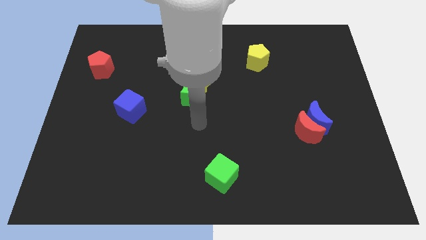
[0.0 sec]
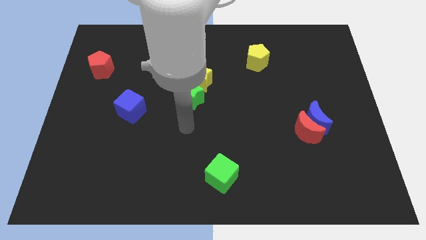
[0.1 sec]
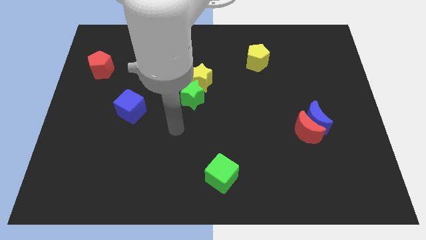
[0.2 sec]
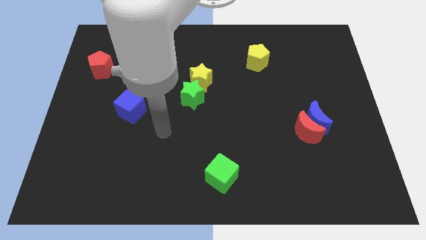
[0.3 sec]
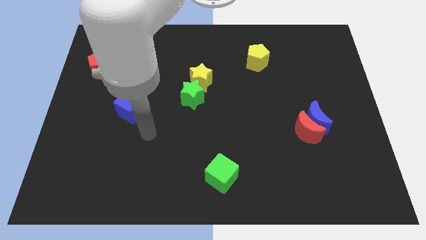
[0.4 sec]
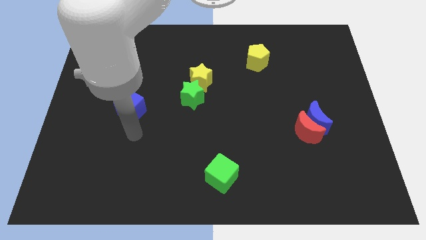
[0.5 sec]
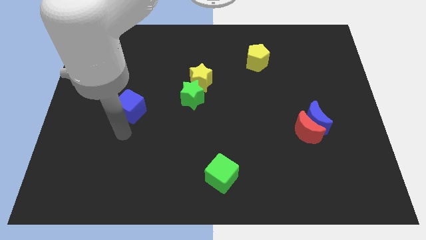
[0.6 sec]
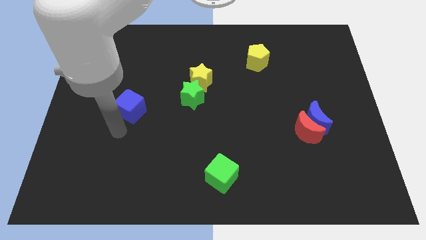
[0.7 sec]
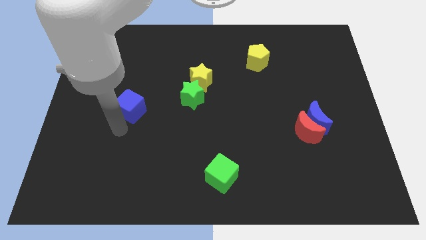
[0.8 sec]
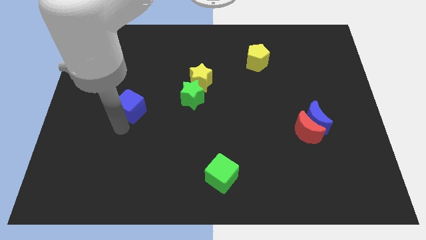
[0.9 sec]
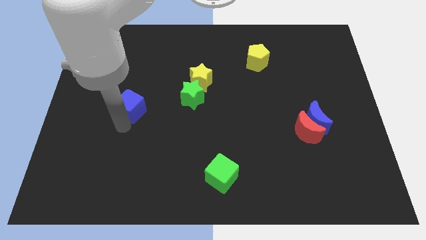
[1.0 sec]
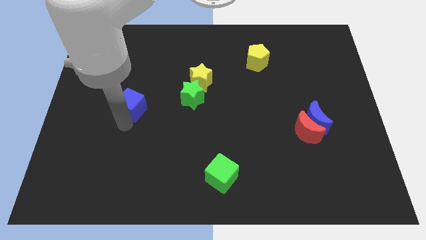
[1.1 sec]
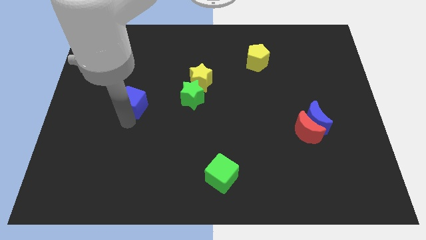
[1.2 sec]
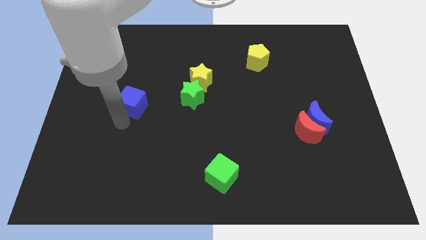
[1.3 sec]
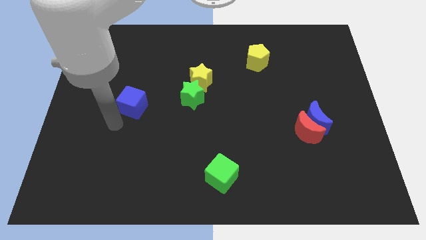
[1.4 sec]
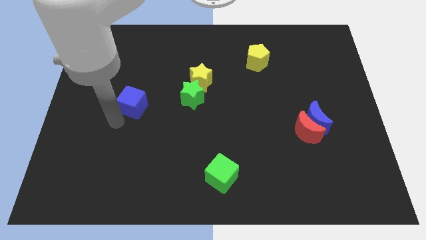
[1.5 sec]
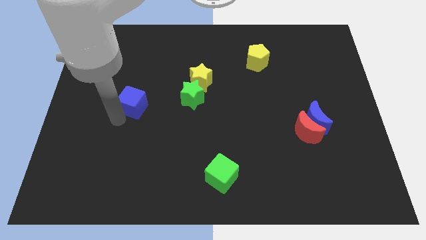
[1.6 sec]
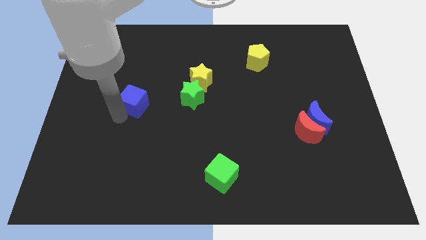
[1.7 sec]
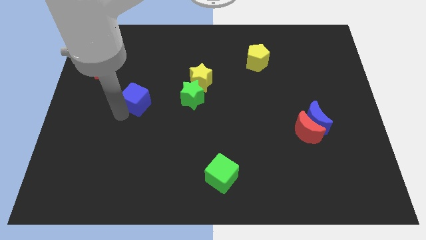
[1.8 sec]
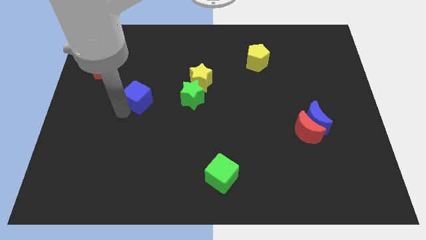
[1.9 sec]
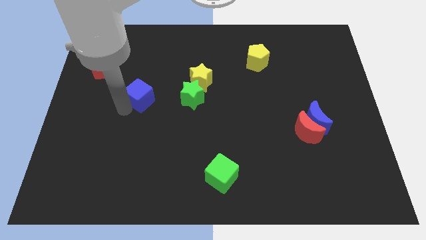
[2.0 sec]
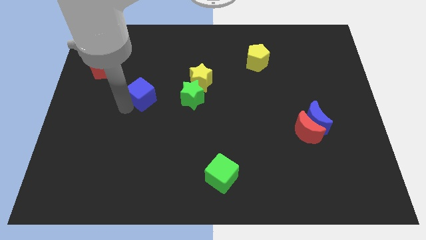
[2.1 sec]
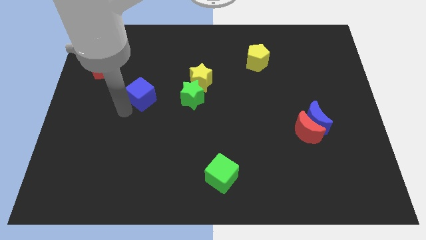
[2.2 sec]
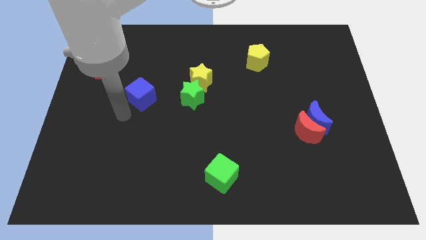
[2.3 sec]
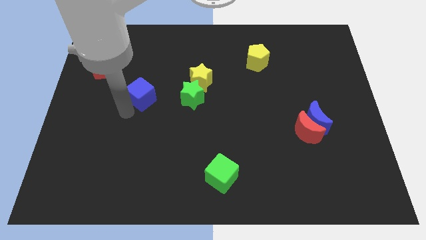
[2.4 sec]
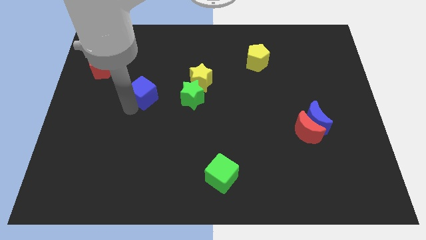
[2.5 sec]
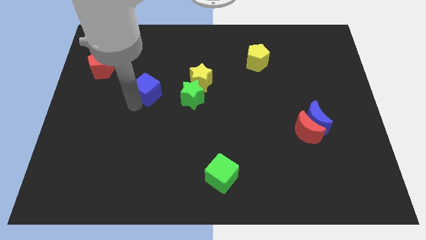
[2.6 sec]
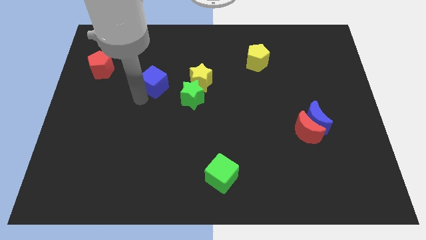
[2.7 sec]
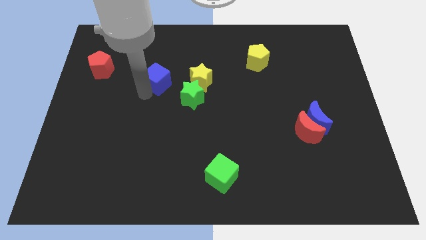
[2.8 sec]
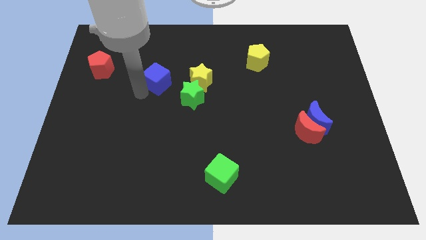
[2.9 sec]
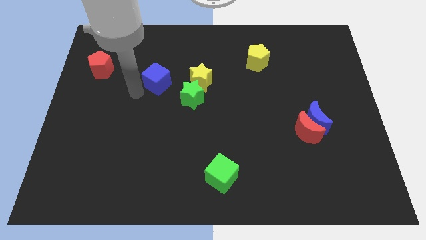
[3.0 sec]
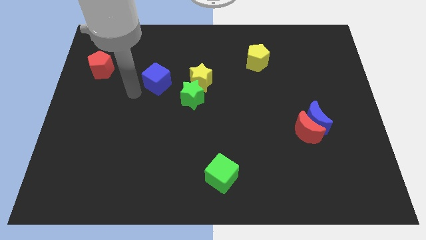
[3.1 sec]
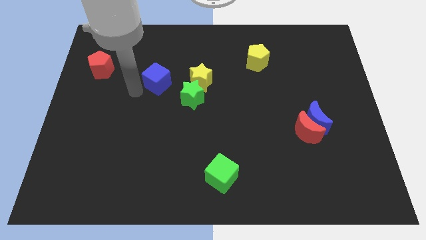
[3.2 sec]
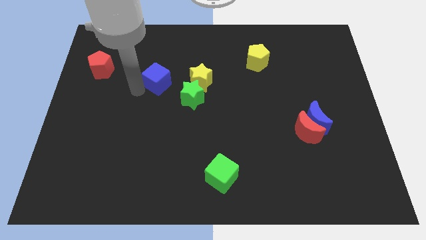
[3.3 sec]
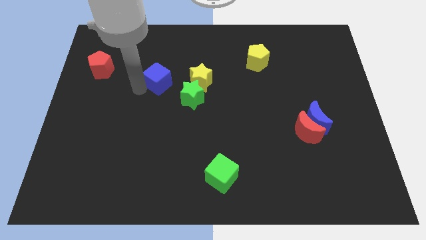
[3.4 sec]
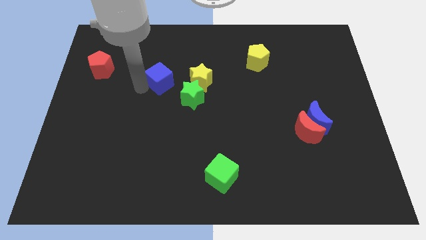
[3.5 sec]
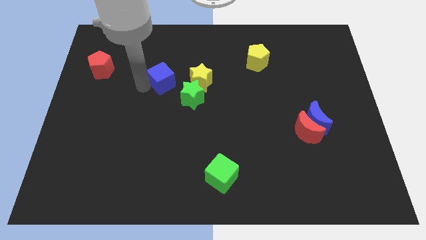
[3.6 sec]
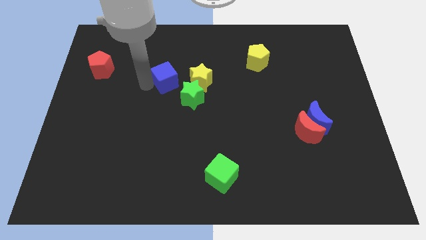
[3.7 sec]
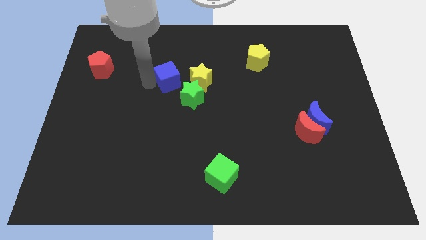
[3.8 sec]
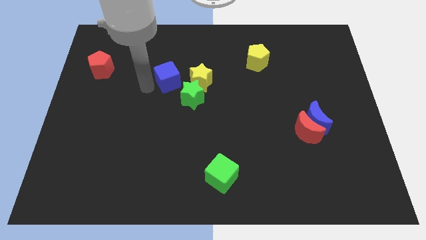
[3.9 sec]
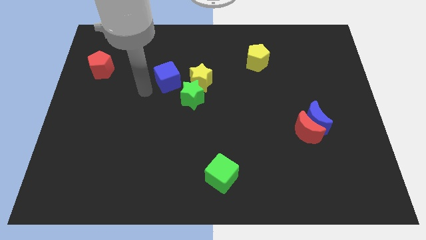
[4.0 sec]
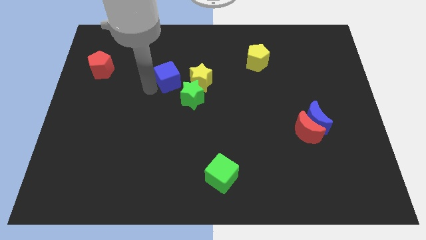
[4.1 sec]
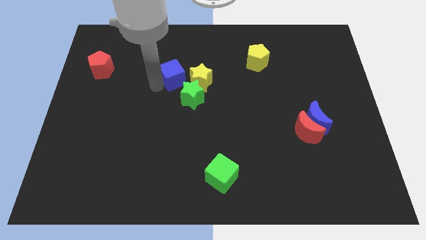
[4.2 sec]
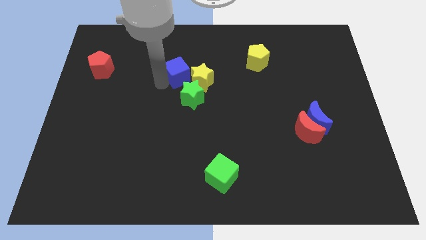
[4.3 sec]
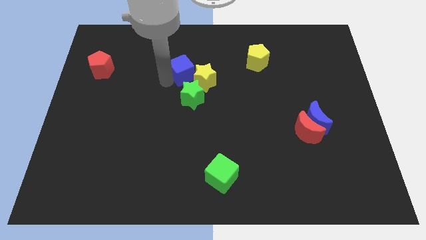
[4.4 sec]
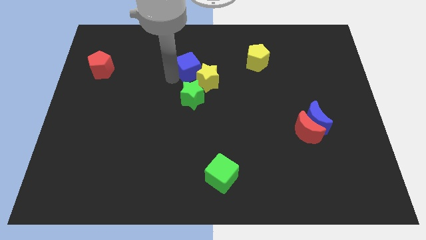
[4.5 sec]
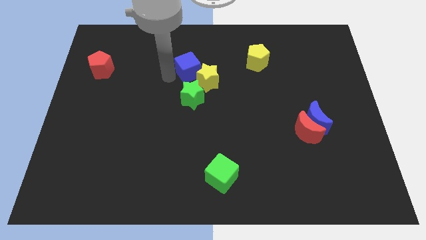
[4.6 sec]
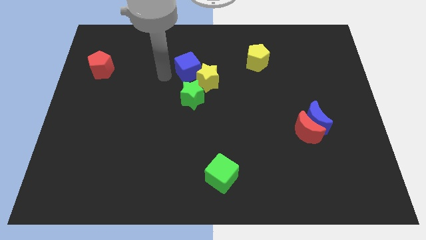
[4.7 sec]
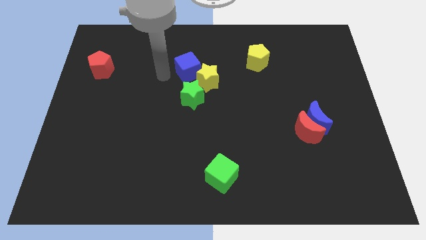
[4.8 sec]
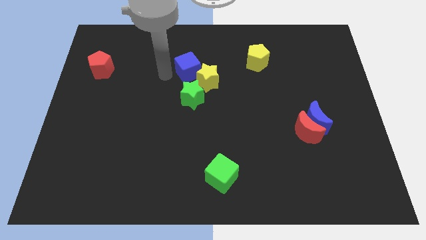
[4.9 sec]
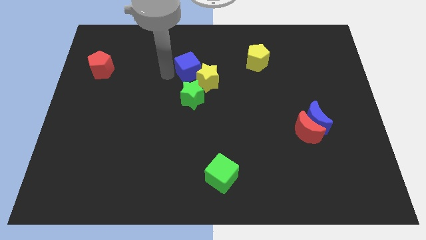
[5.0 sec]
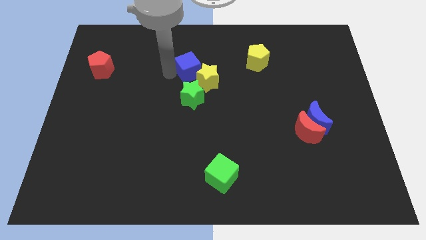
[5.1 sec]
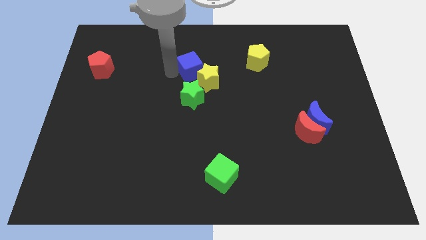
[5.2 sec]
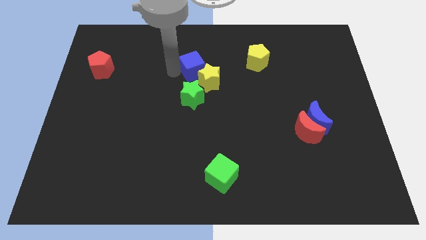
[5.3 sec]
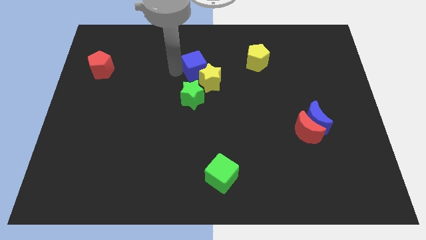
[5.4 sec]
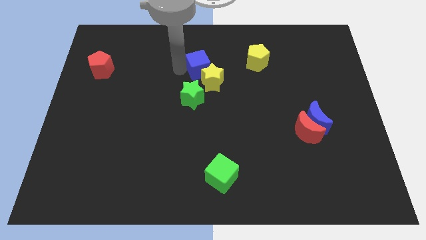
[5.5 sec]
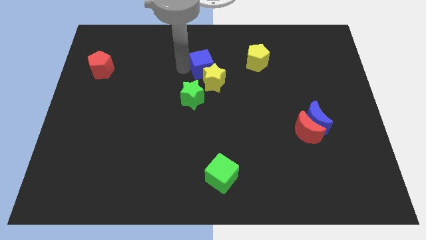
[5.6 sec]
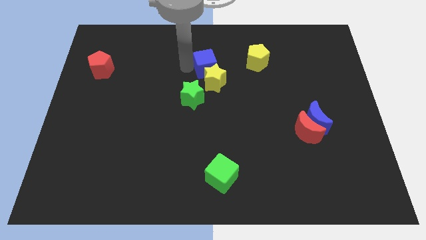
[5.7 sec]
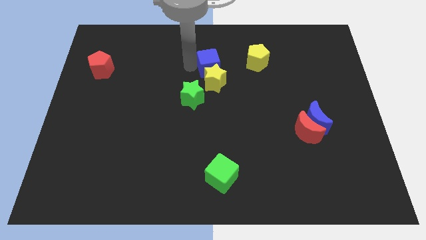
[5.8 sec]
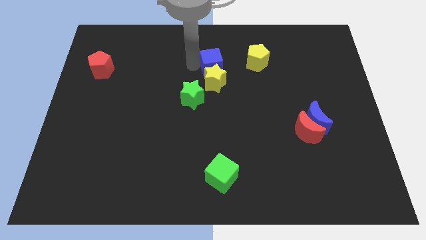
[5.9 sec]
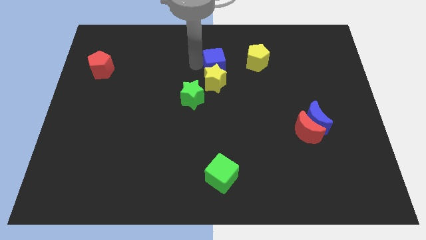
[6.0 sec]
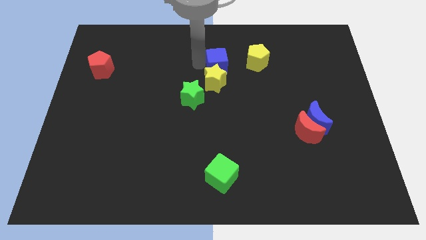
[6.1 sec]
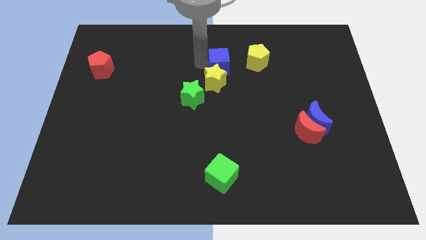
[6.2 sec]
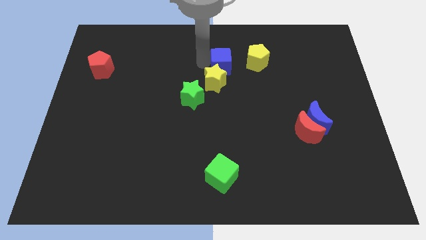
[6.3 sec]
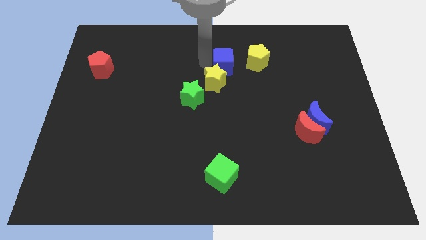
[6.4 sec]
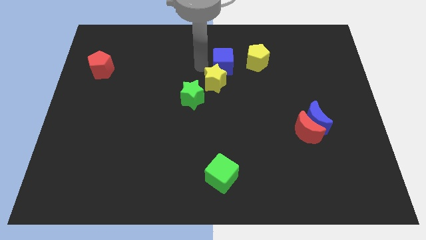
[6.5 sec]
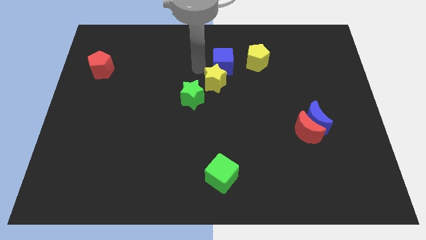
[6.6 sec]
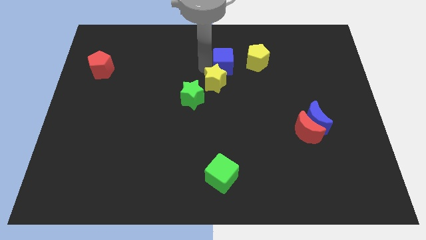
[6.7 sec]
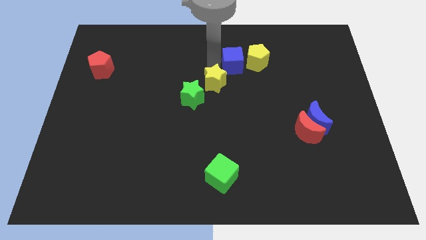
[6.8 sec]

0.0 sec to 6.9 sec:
move the blue cube towards the yellow pentagon

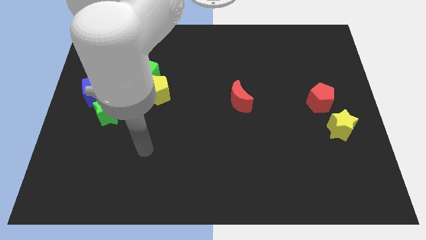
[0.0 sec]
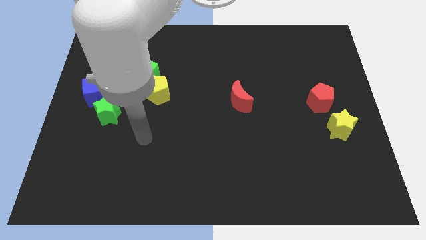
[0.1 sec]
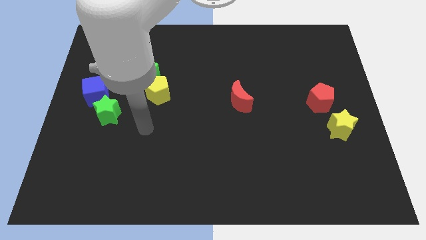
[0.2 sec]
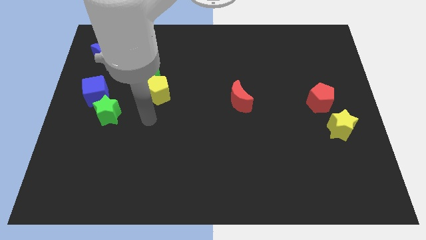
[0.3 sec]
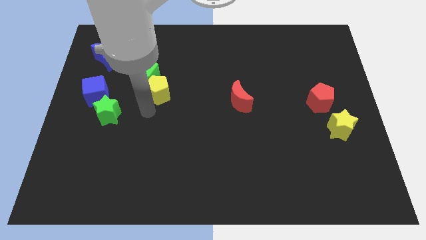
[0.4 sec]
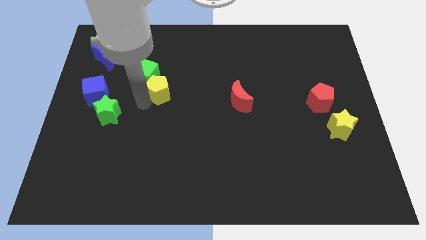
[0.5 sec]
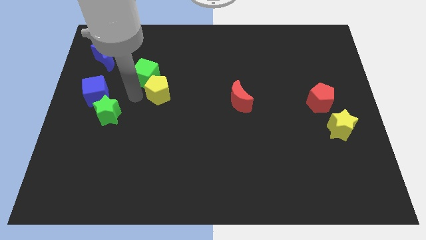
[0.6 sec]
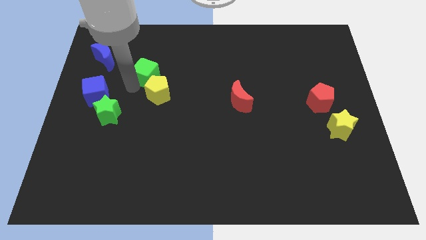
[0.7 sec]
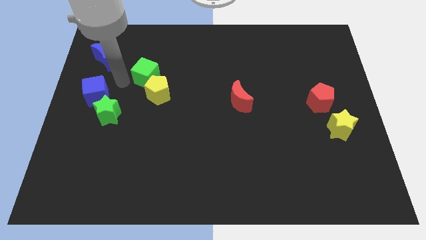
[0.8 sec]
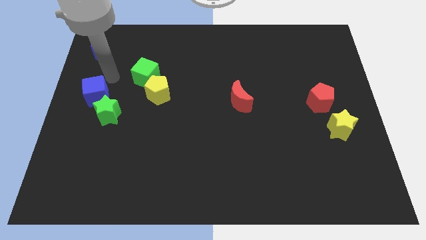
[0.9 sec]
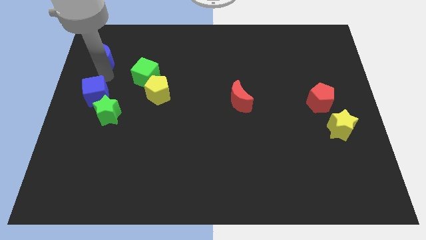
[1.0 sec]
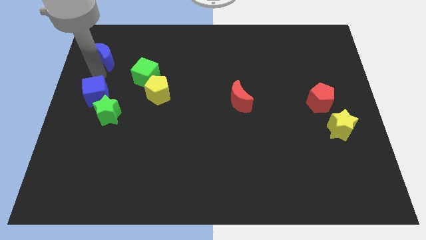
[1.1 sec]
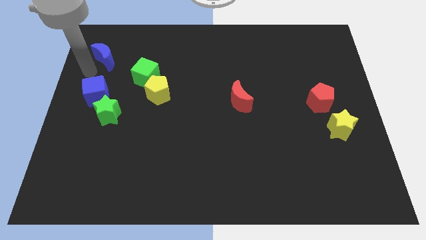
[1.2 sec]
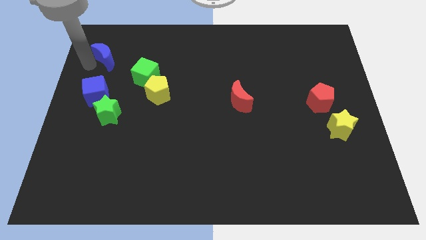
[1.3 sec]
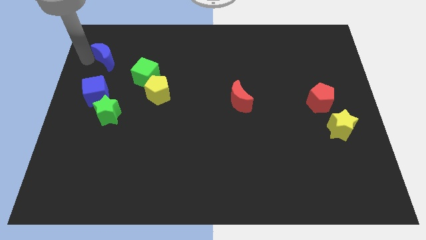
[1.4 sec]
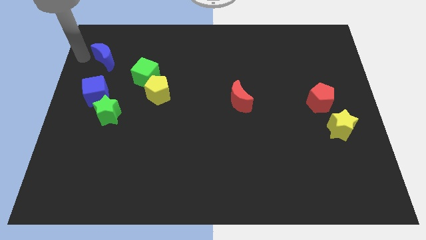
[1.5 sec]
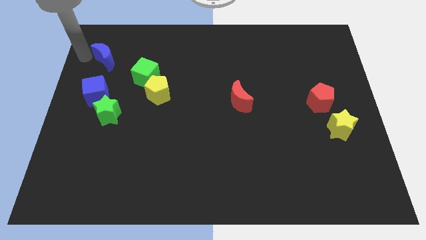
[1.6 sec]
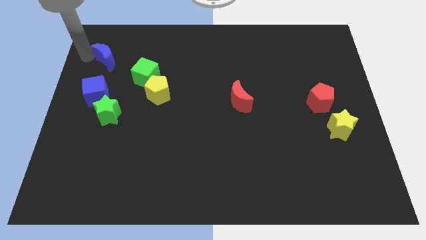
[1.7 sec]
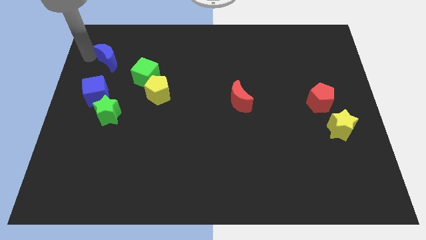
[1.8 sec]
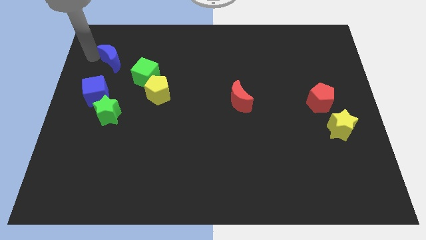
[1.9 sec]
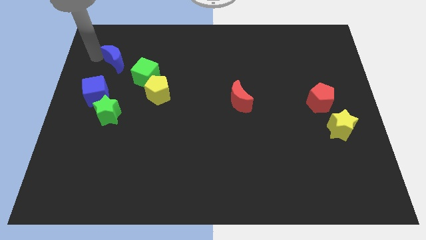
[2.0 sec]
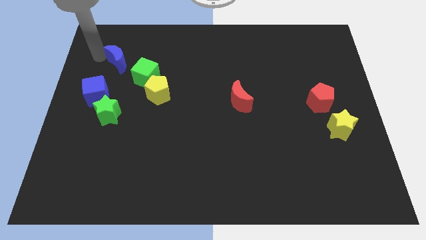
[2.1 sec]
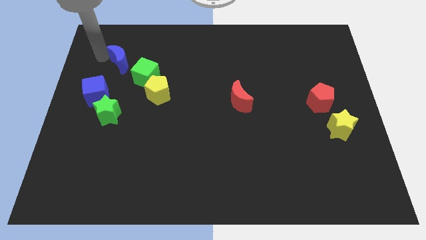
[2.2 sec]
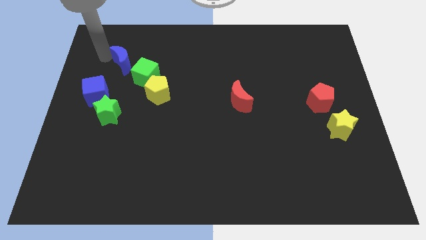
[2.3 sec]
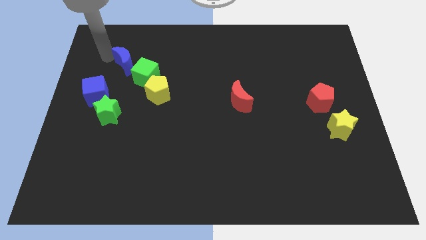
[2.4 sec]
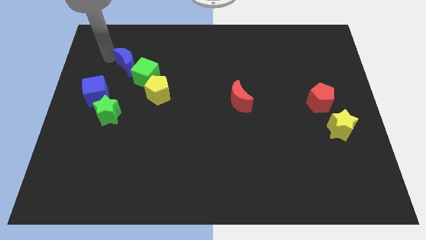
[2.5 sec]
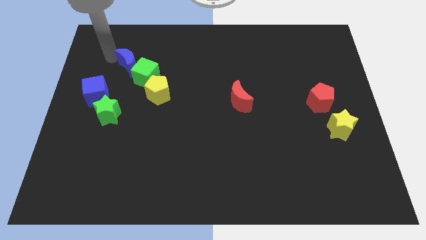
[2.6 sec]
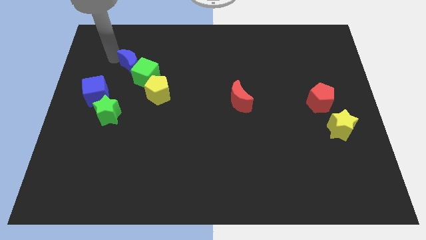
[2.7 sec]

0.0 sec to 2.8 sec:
put the blue moon towards the green cube
